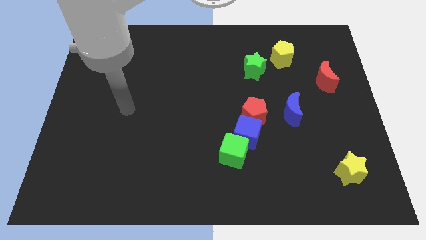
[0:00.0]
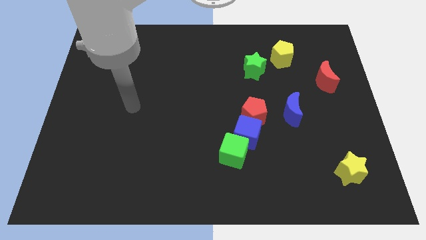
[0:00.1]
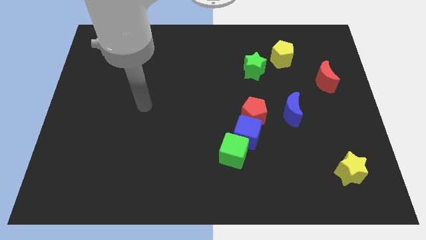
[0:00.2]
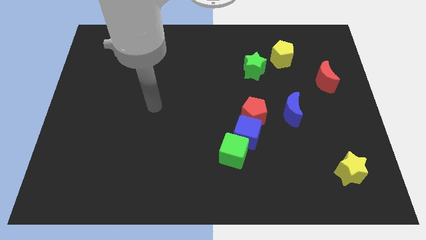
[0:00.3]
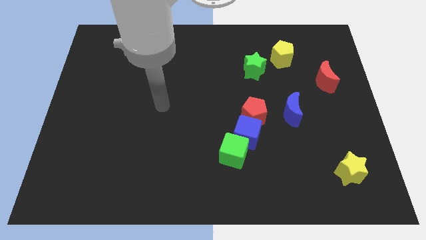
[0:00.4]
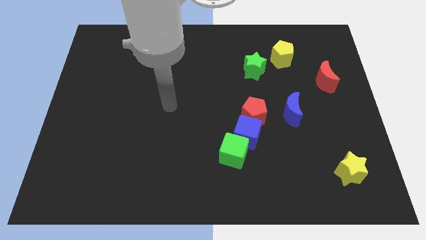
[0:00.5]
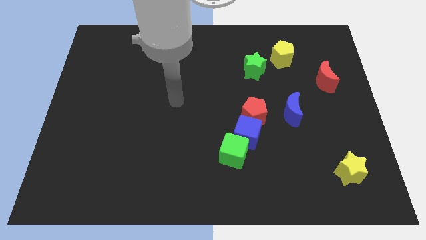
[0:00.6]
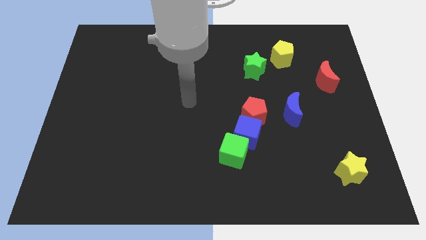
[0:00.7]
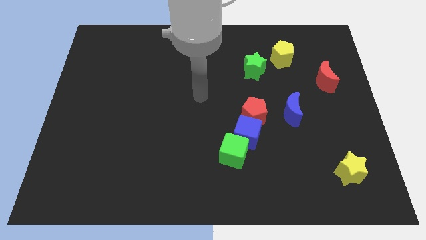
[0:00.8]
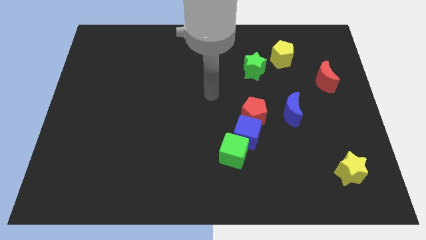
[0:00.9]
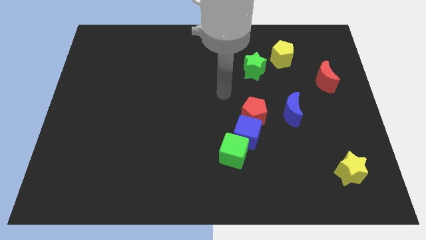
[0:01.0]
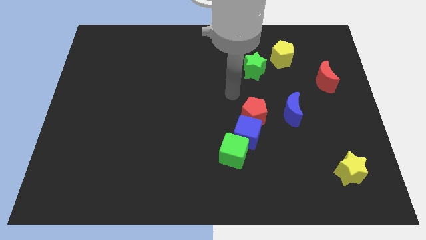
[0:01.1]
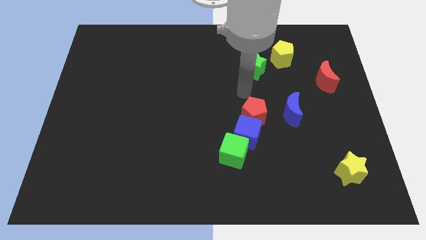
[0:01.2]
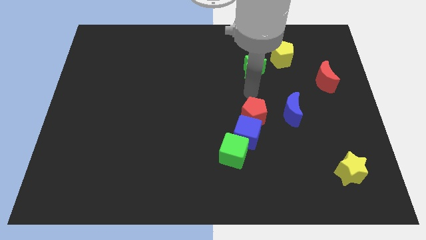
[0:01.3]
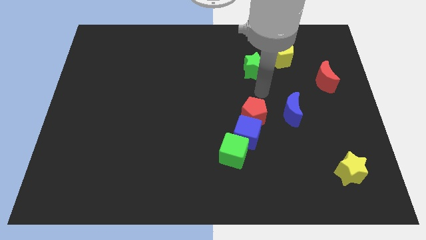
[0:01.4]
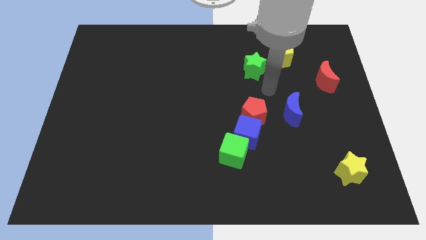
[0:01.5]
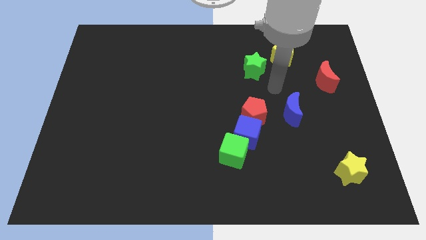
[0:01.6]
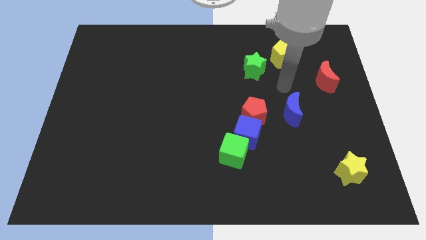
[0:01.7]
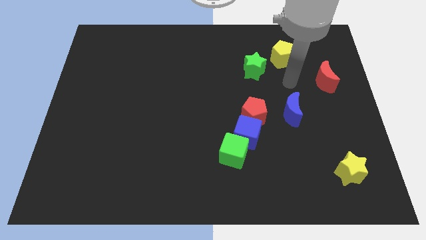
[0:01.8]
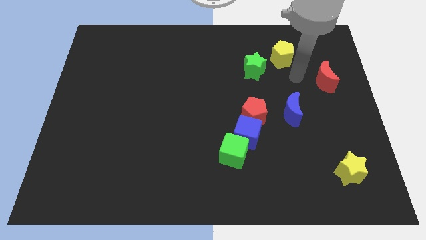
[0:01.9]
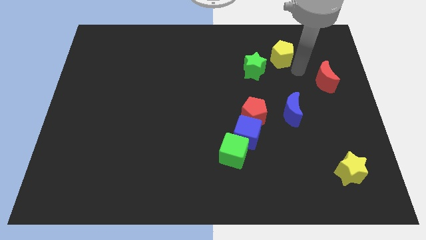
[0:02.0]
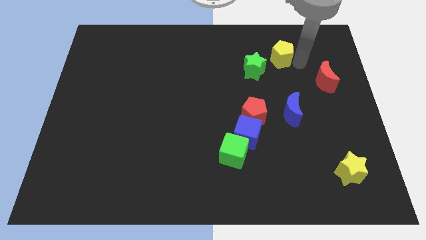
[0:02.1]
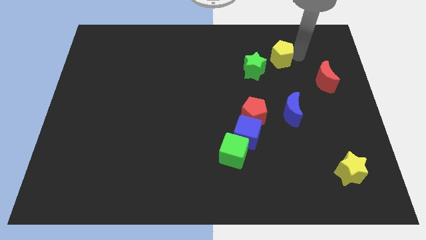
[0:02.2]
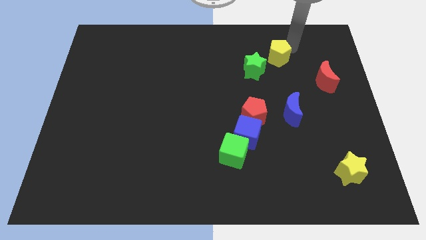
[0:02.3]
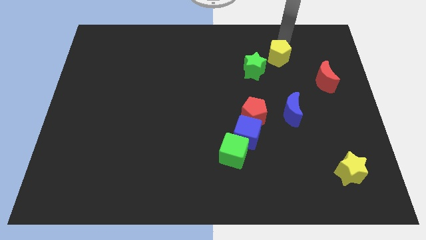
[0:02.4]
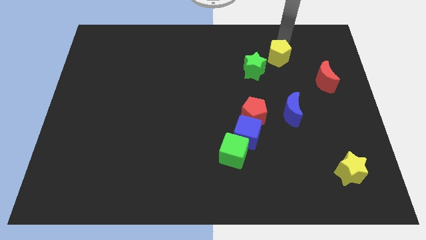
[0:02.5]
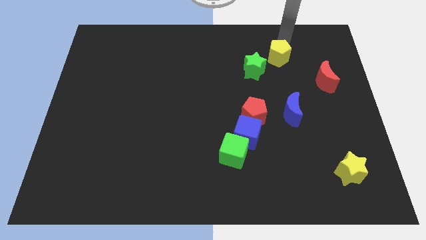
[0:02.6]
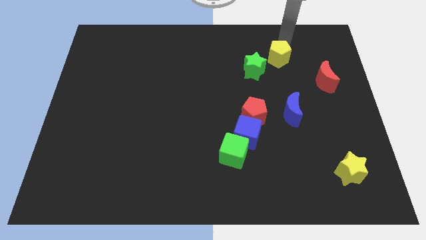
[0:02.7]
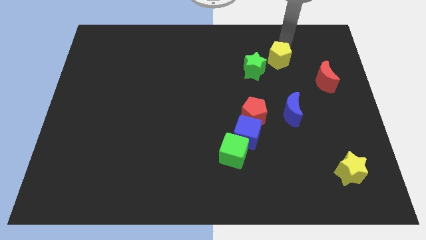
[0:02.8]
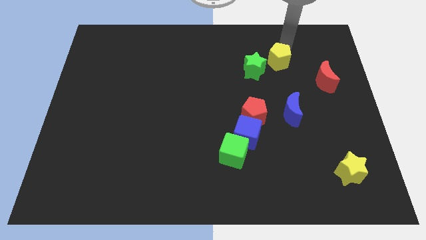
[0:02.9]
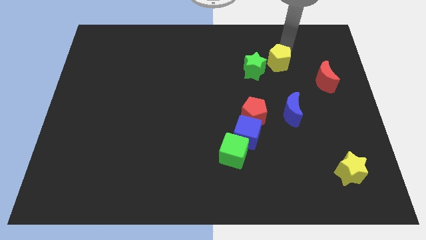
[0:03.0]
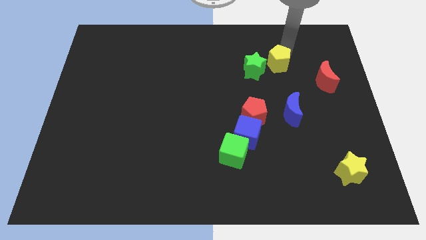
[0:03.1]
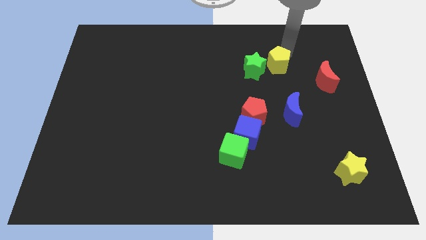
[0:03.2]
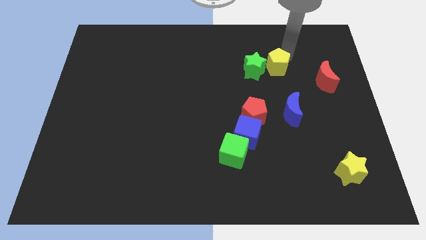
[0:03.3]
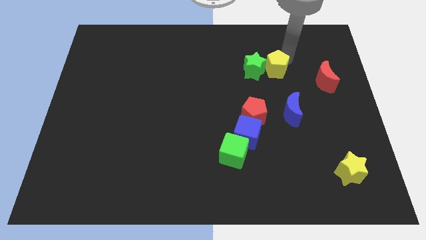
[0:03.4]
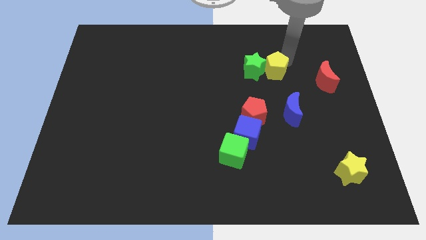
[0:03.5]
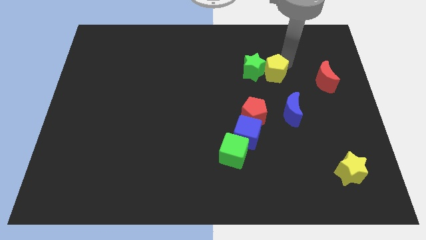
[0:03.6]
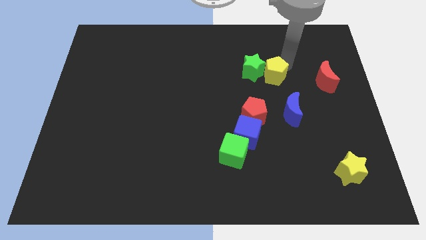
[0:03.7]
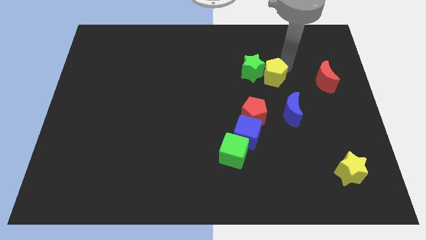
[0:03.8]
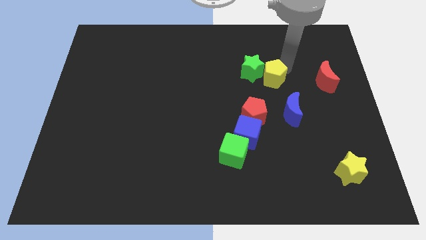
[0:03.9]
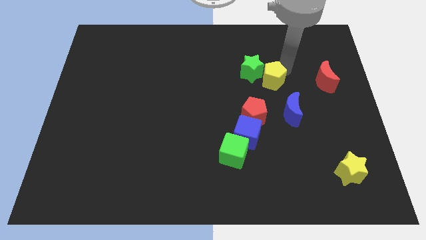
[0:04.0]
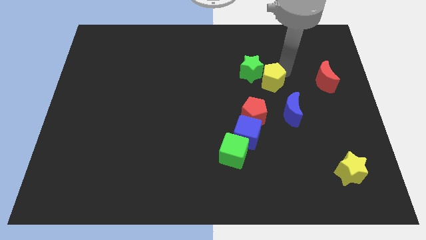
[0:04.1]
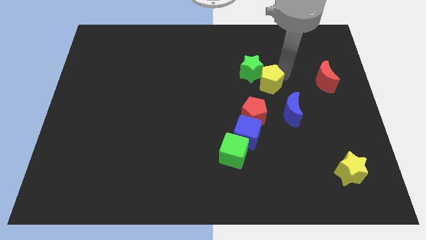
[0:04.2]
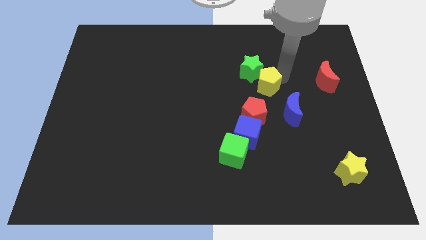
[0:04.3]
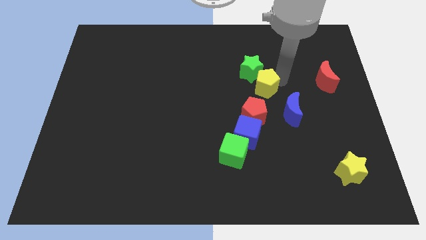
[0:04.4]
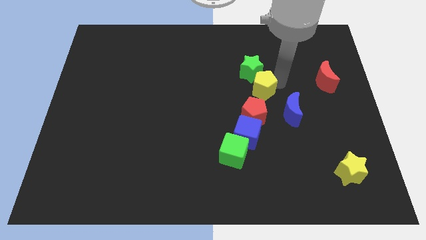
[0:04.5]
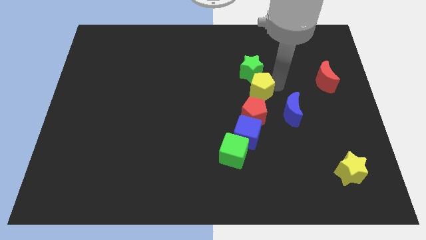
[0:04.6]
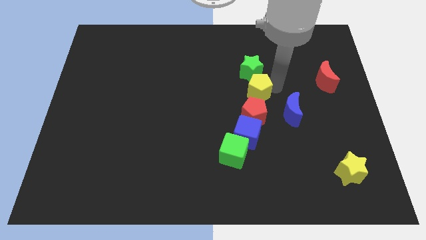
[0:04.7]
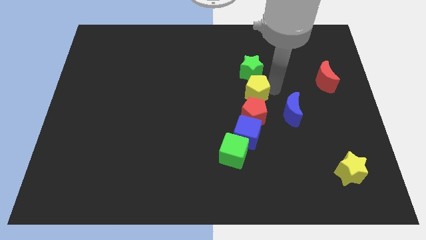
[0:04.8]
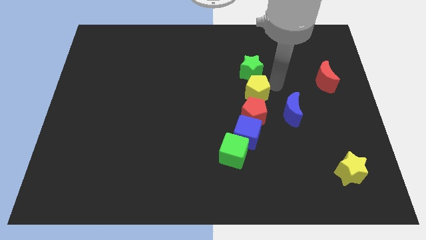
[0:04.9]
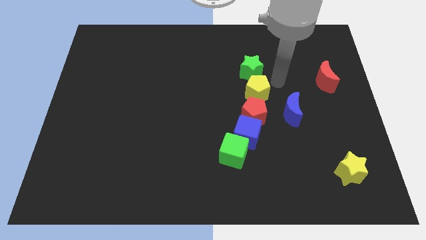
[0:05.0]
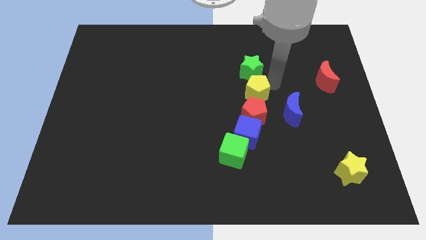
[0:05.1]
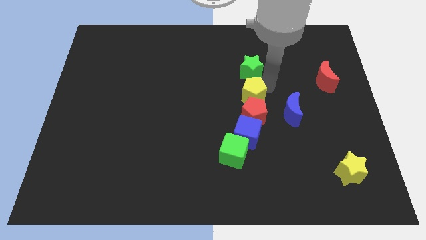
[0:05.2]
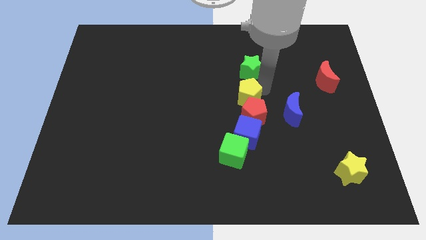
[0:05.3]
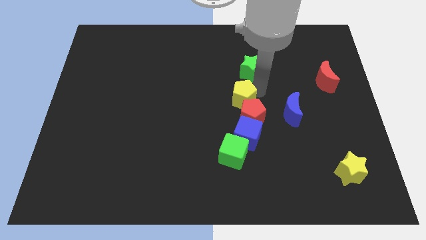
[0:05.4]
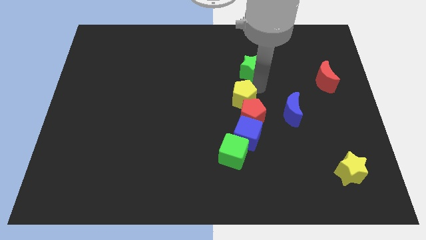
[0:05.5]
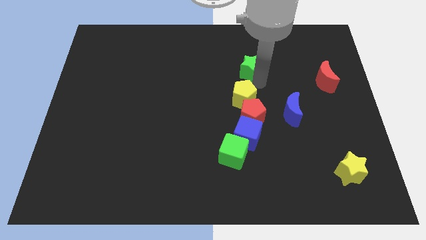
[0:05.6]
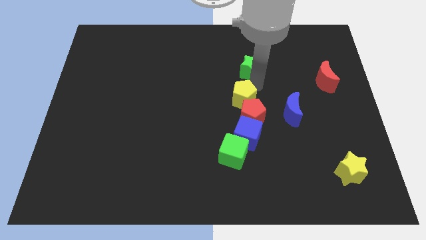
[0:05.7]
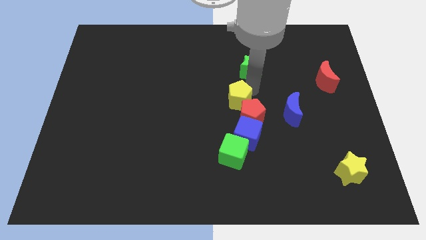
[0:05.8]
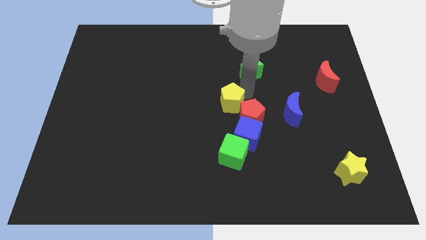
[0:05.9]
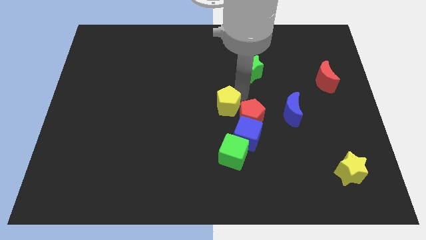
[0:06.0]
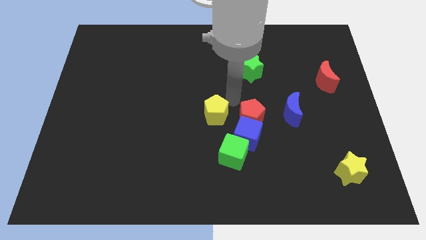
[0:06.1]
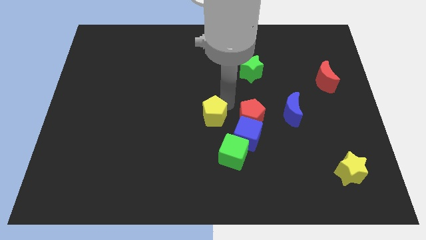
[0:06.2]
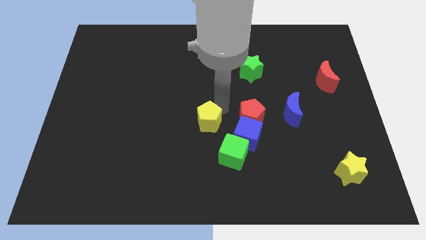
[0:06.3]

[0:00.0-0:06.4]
slide the yellow pentagon just left of the blue cube
